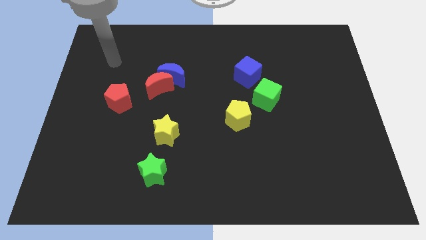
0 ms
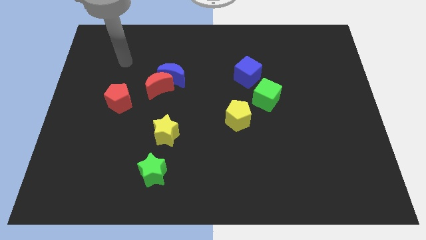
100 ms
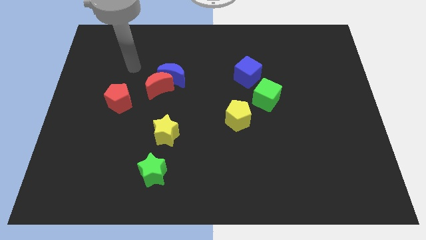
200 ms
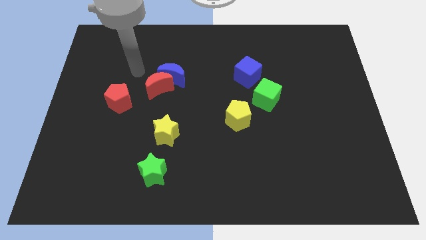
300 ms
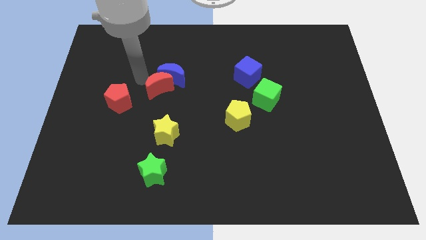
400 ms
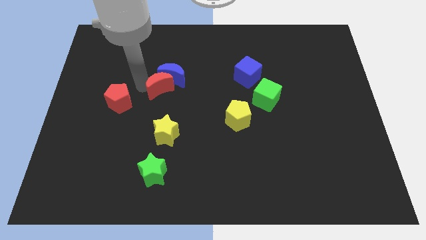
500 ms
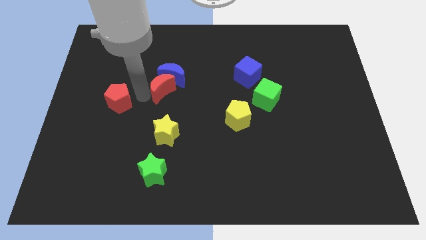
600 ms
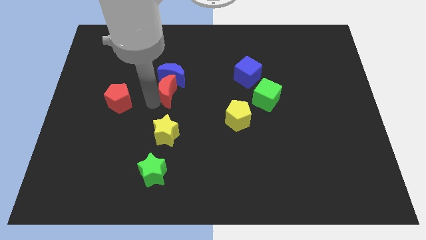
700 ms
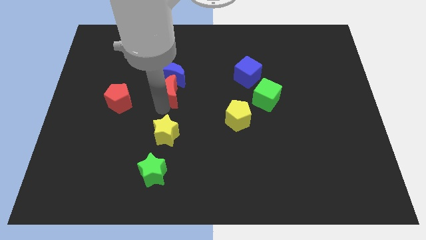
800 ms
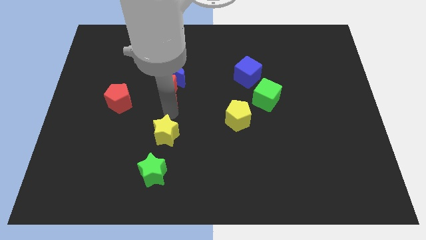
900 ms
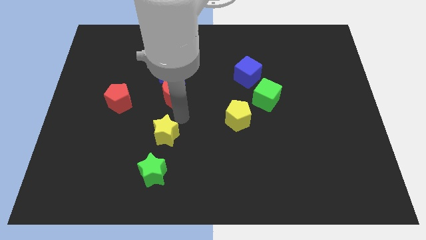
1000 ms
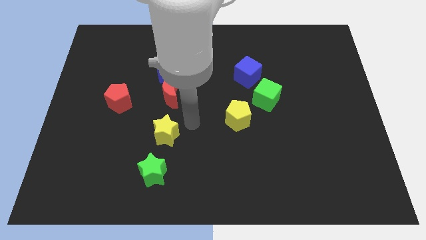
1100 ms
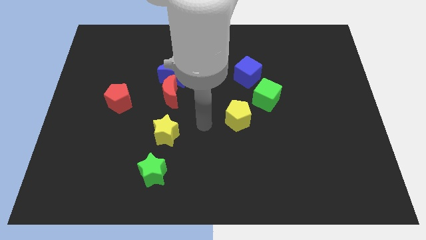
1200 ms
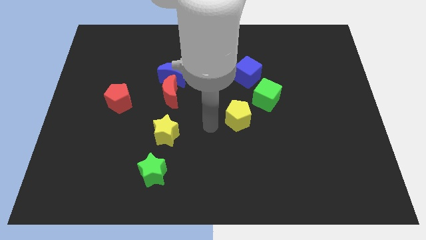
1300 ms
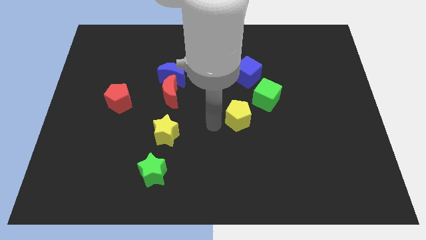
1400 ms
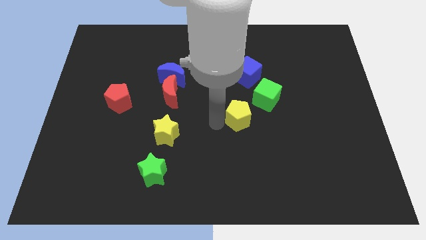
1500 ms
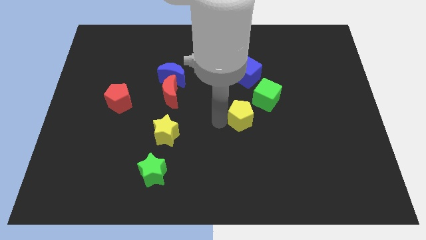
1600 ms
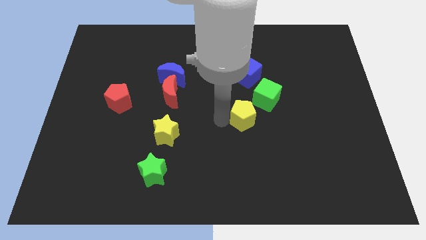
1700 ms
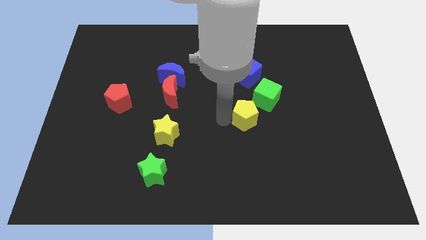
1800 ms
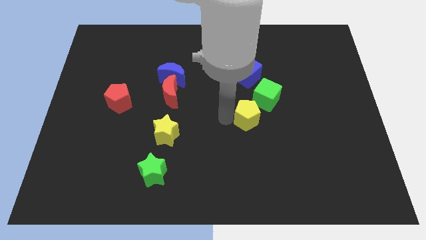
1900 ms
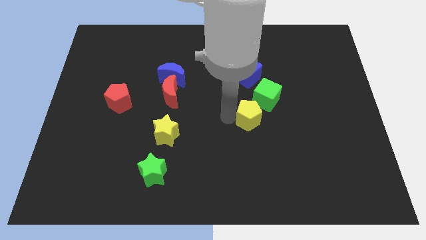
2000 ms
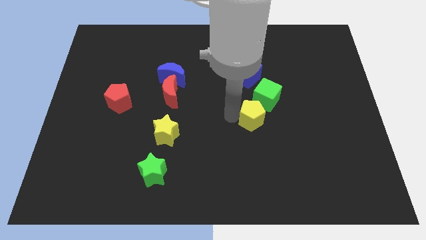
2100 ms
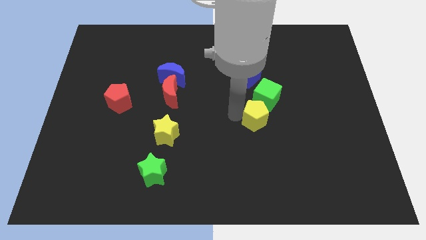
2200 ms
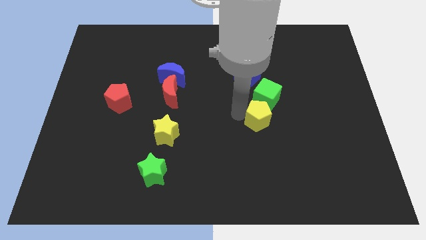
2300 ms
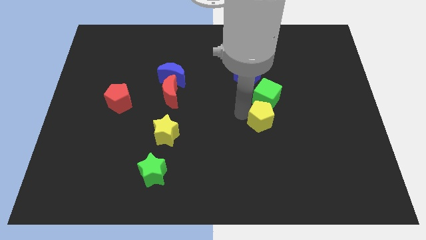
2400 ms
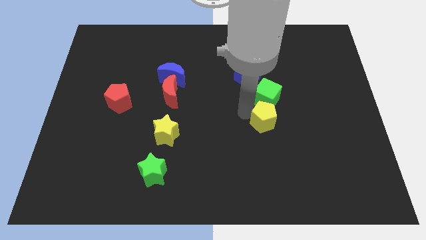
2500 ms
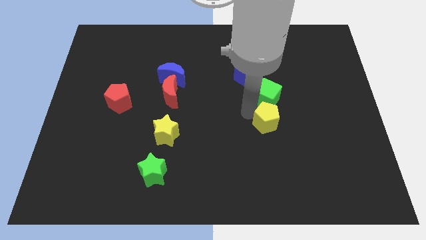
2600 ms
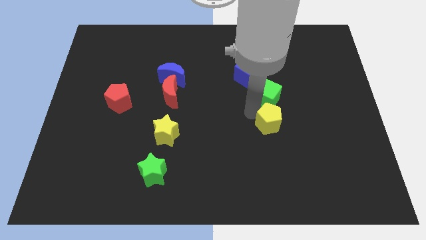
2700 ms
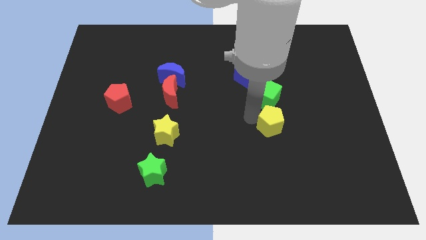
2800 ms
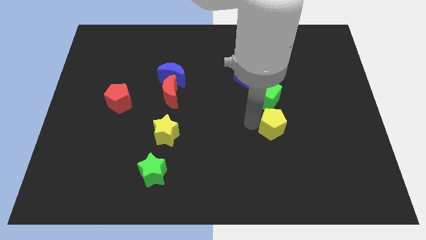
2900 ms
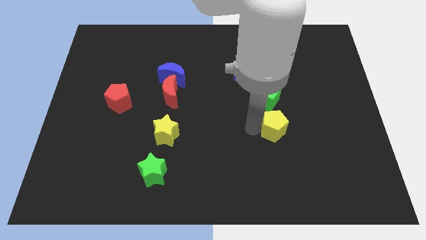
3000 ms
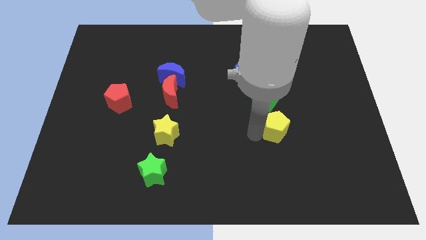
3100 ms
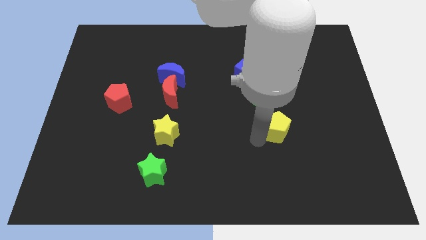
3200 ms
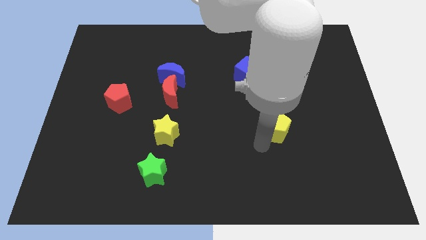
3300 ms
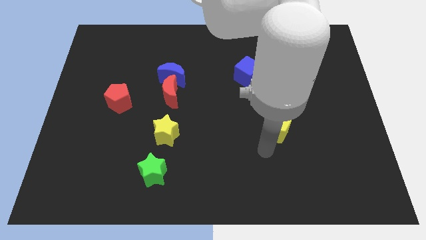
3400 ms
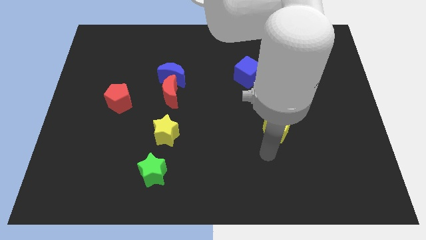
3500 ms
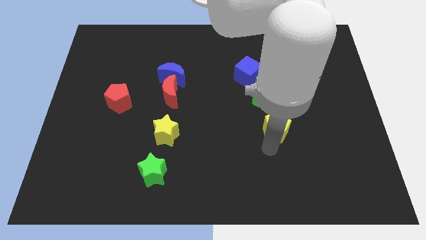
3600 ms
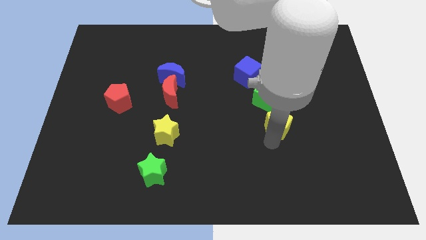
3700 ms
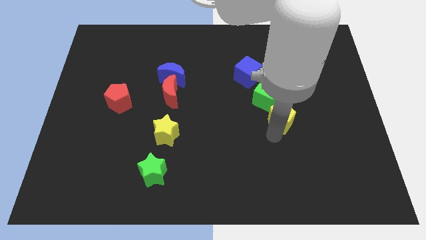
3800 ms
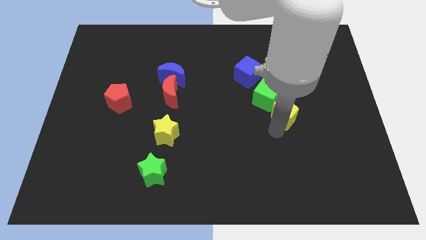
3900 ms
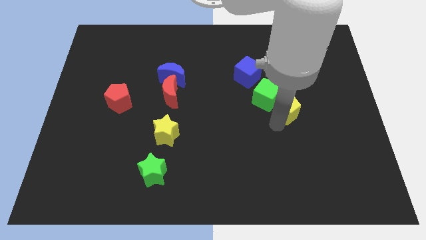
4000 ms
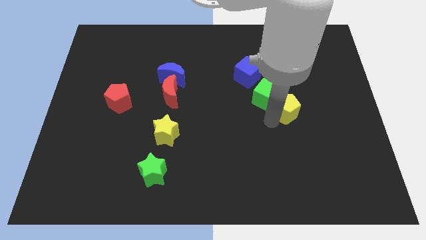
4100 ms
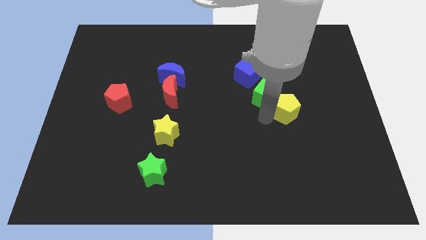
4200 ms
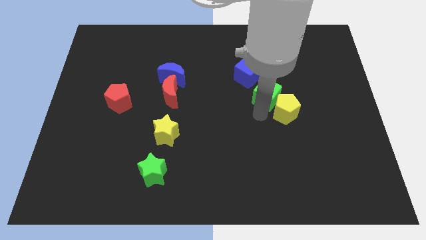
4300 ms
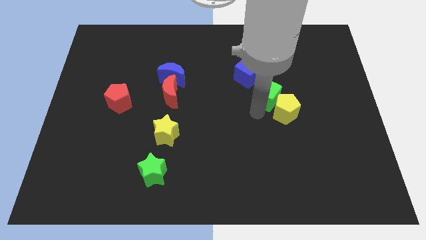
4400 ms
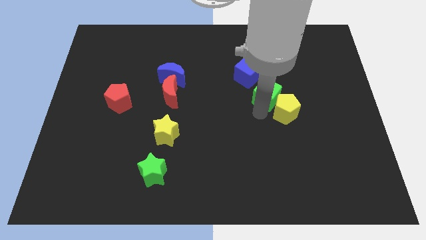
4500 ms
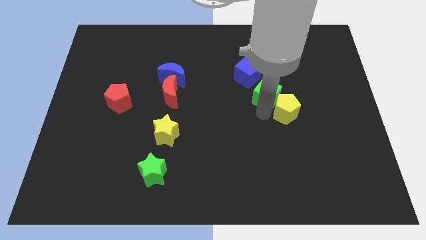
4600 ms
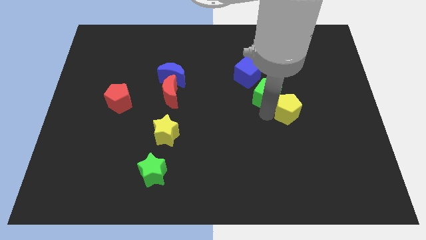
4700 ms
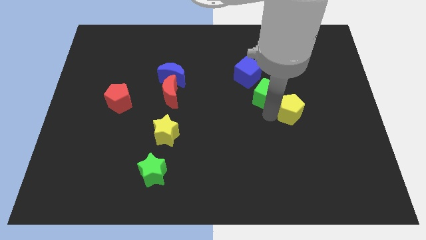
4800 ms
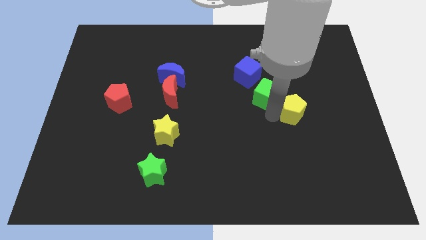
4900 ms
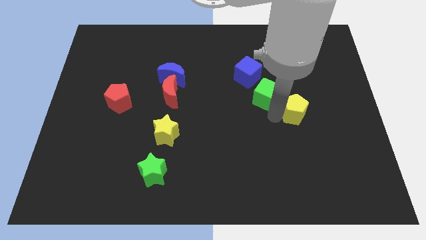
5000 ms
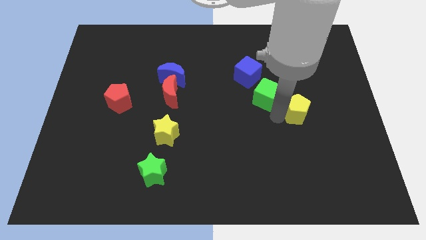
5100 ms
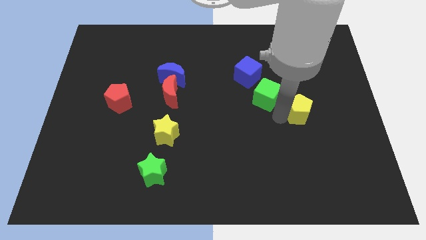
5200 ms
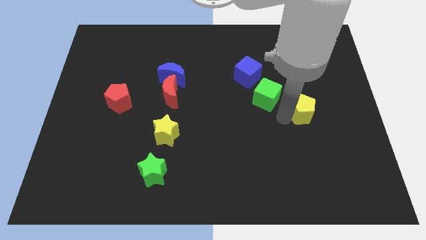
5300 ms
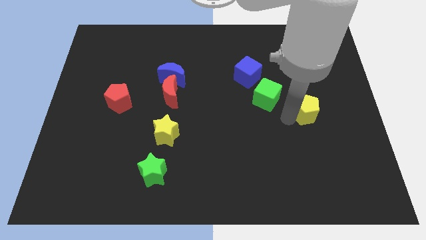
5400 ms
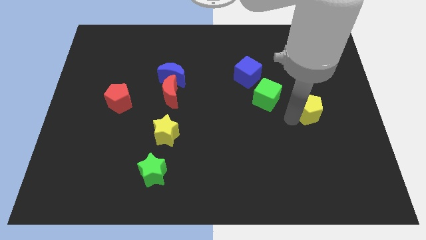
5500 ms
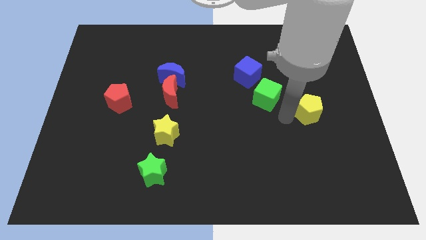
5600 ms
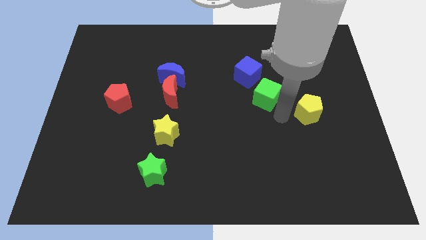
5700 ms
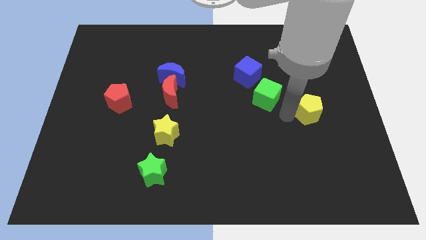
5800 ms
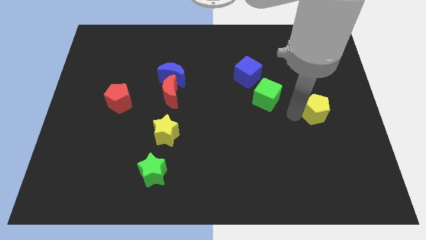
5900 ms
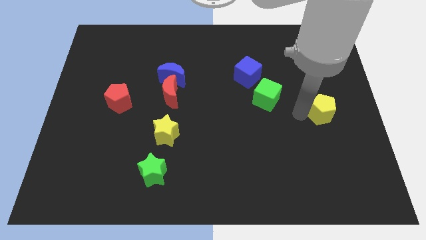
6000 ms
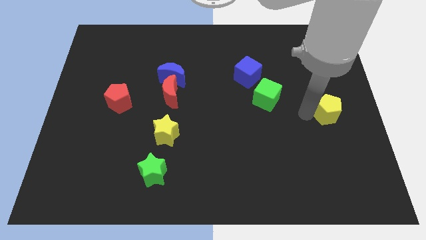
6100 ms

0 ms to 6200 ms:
slide the yellow pentagon to the right side of the board

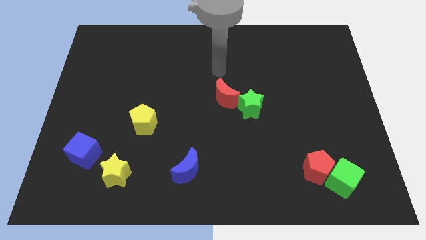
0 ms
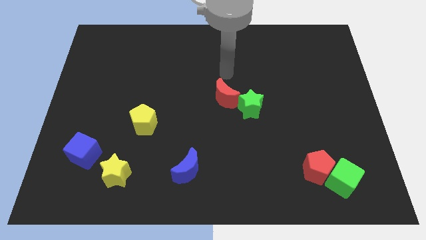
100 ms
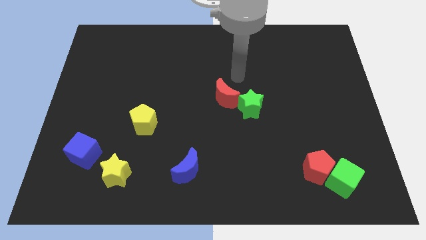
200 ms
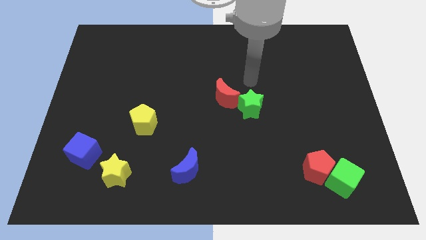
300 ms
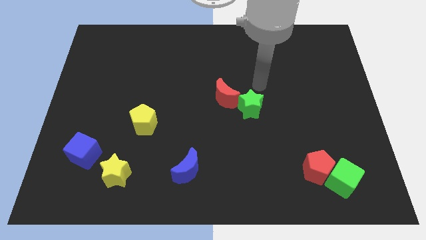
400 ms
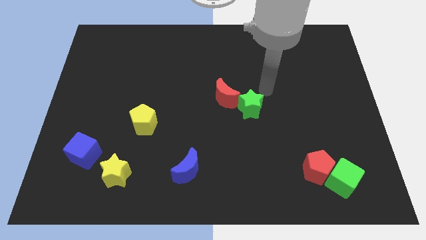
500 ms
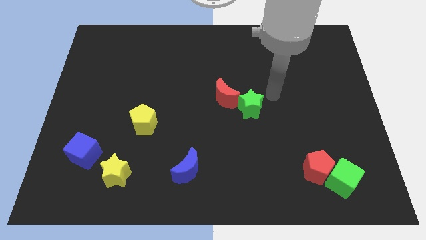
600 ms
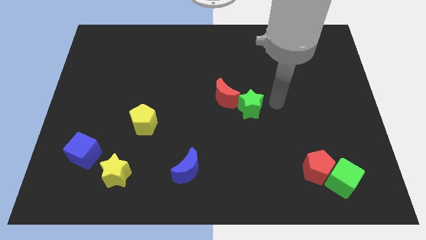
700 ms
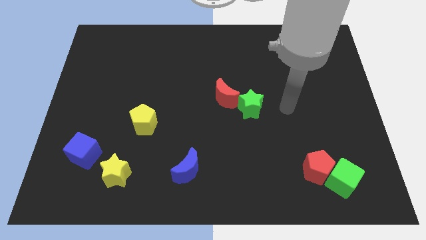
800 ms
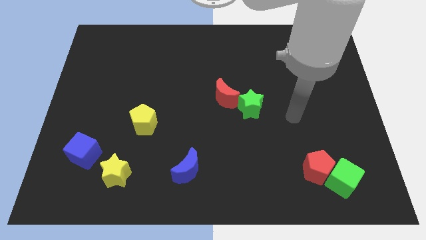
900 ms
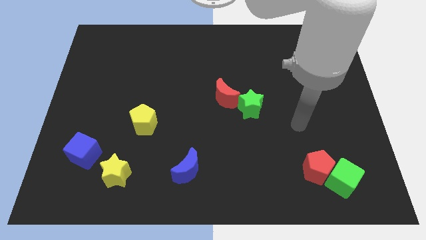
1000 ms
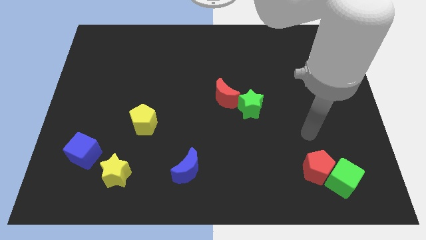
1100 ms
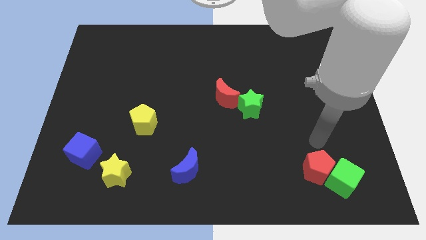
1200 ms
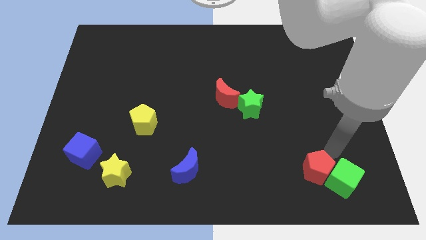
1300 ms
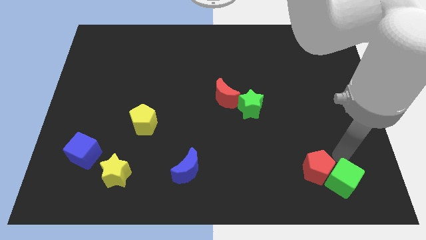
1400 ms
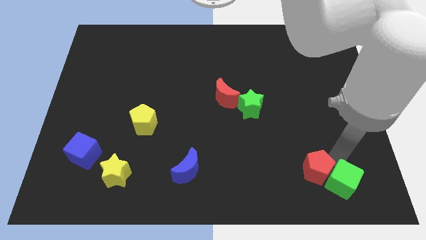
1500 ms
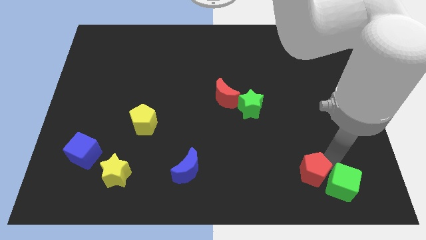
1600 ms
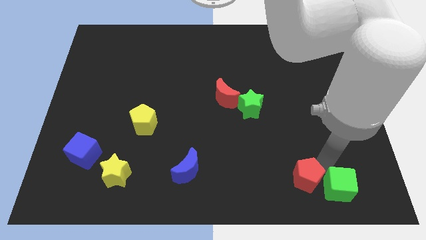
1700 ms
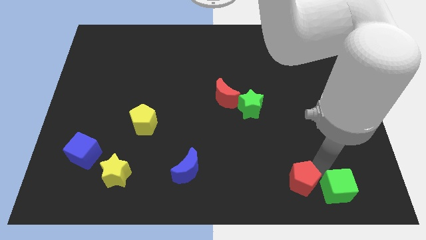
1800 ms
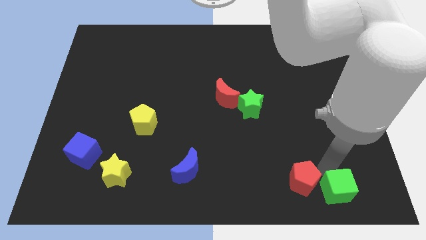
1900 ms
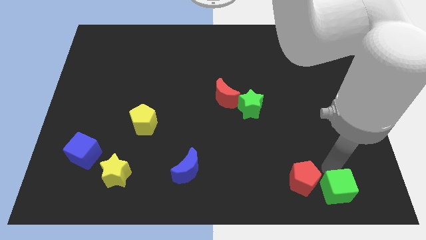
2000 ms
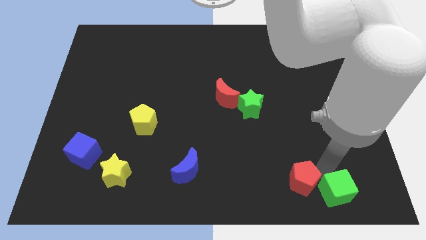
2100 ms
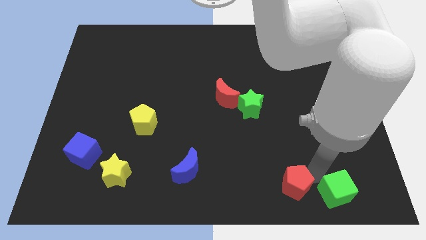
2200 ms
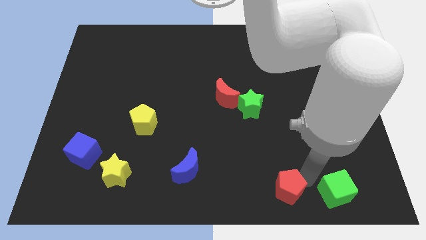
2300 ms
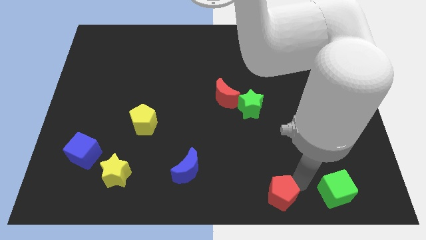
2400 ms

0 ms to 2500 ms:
move the red pentagon to the bottom
